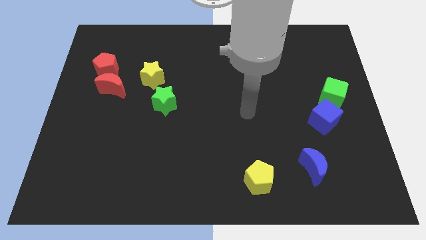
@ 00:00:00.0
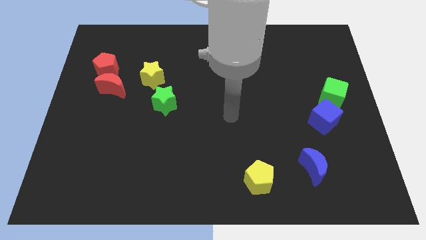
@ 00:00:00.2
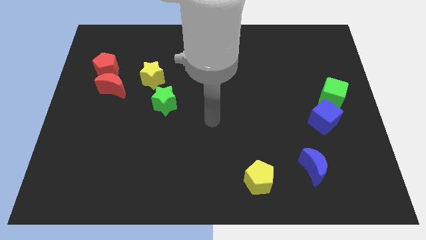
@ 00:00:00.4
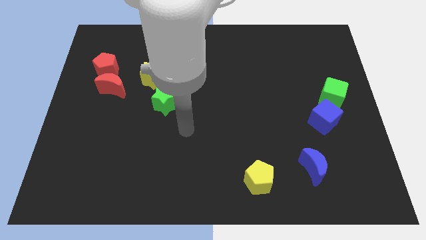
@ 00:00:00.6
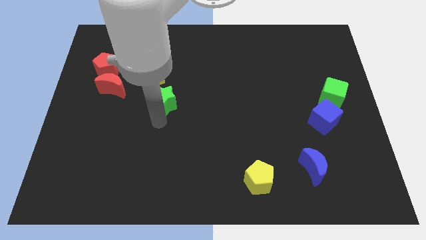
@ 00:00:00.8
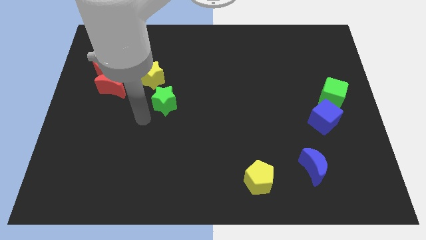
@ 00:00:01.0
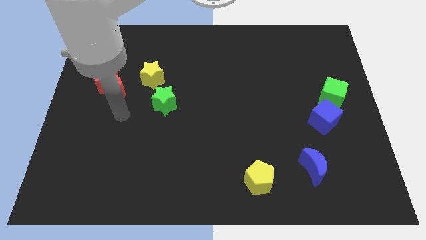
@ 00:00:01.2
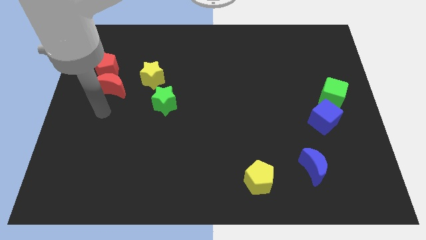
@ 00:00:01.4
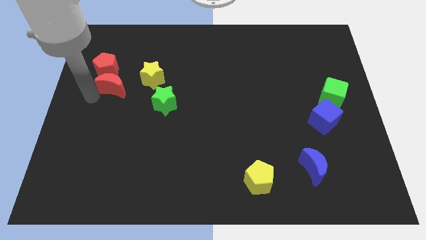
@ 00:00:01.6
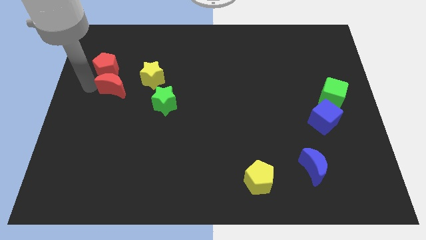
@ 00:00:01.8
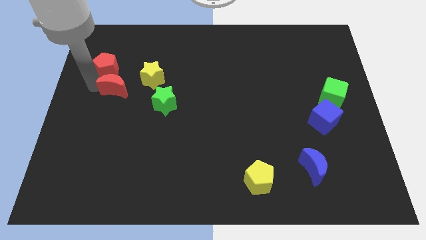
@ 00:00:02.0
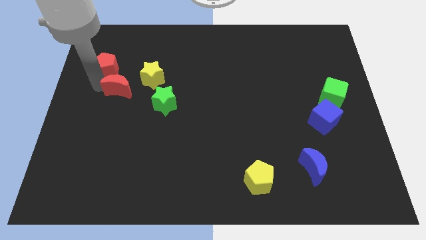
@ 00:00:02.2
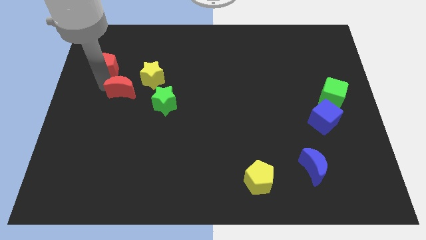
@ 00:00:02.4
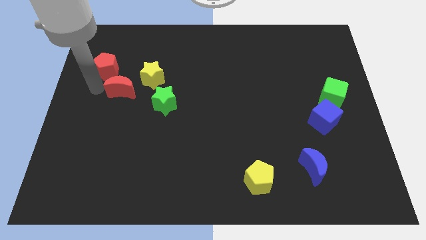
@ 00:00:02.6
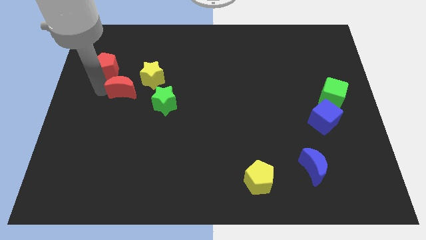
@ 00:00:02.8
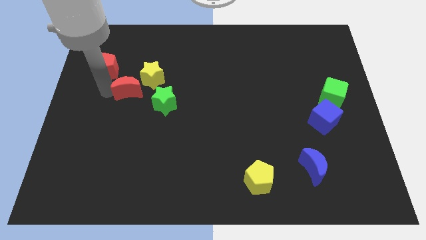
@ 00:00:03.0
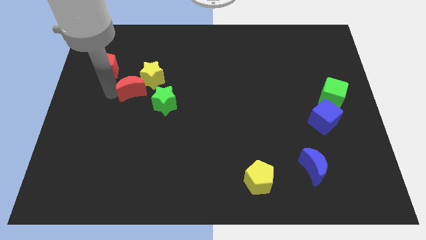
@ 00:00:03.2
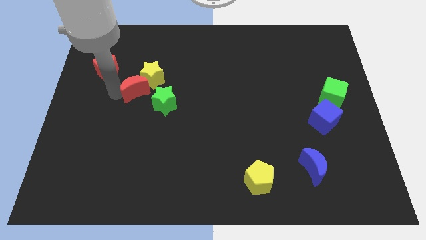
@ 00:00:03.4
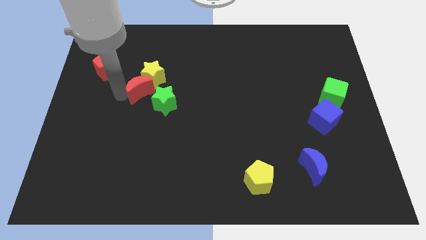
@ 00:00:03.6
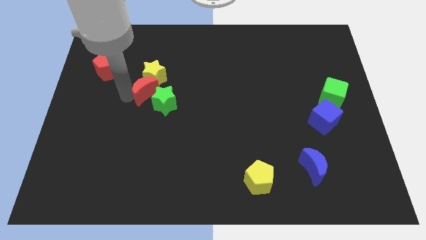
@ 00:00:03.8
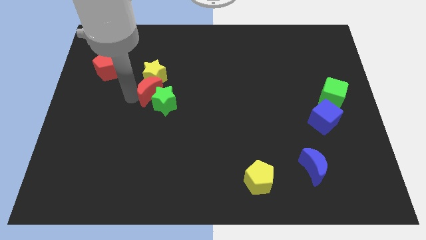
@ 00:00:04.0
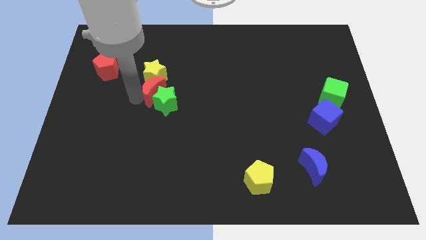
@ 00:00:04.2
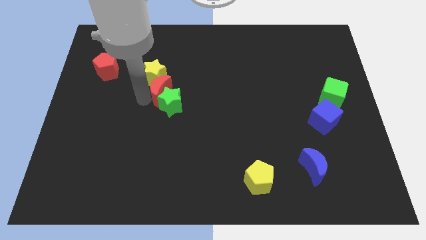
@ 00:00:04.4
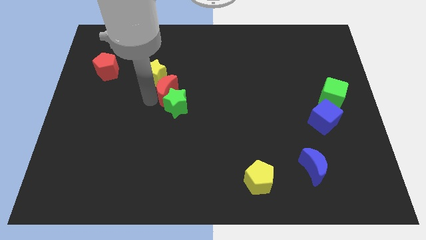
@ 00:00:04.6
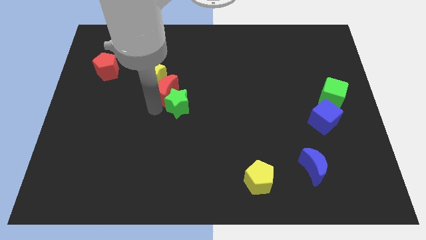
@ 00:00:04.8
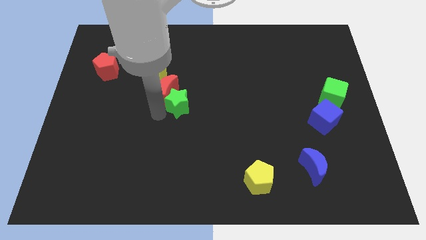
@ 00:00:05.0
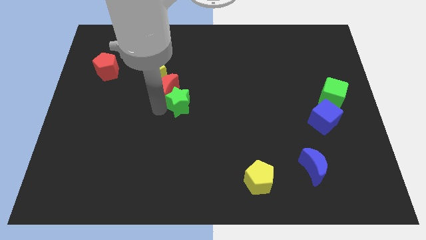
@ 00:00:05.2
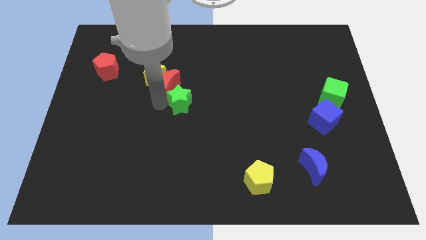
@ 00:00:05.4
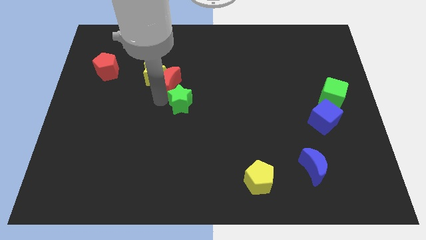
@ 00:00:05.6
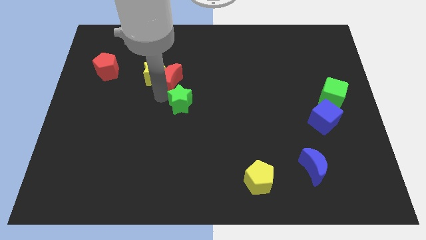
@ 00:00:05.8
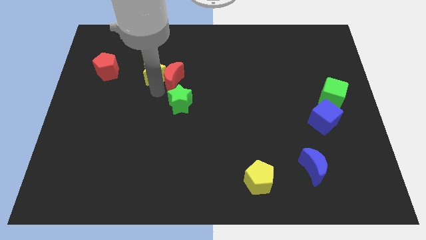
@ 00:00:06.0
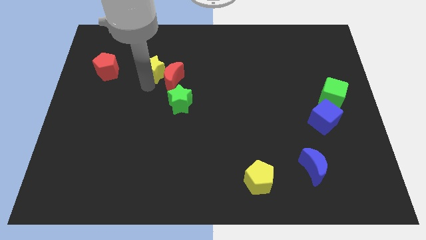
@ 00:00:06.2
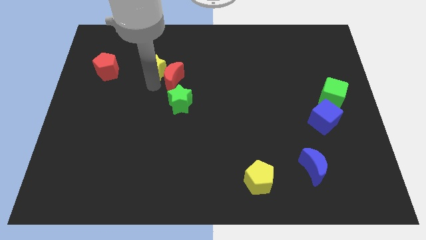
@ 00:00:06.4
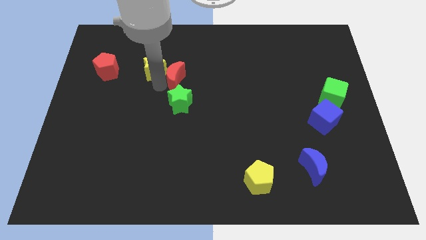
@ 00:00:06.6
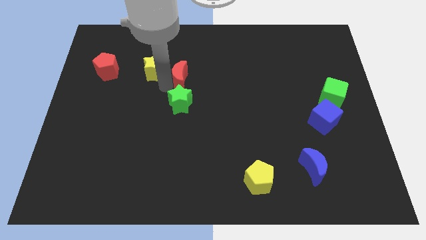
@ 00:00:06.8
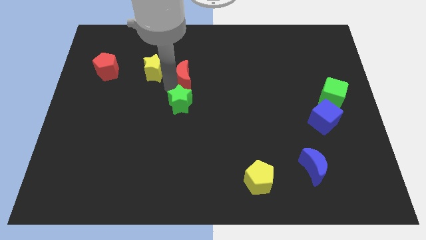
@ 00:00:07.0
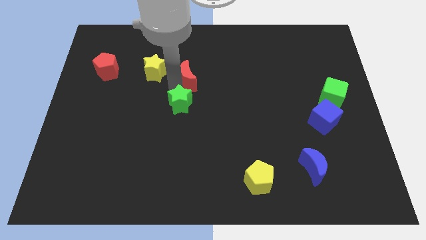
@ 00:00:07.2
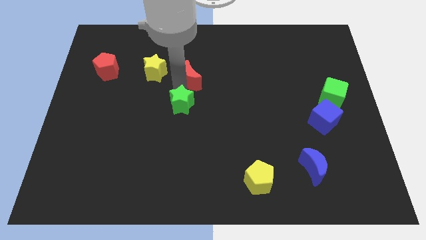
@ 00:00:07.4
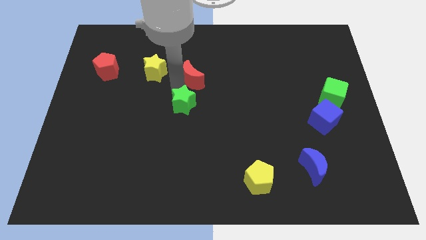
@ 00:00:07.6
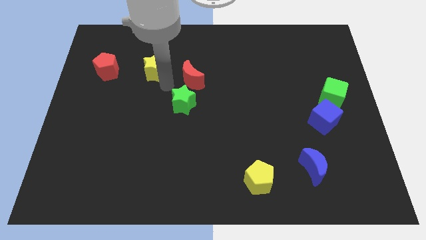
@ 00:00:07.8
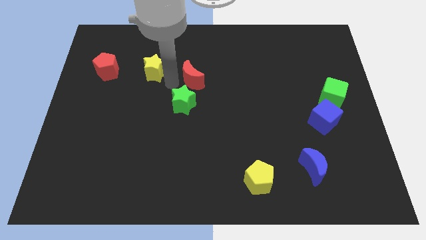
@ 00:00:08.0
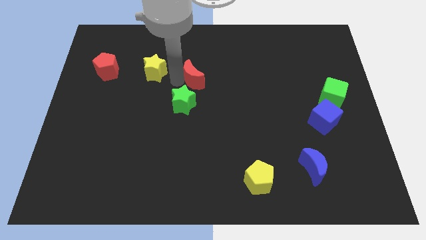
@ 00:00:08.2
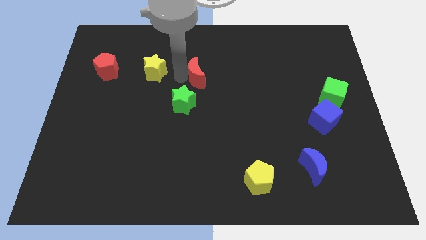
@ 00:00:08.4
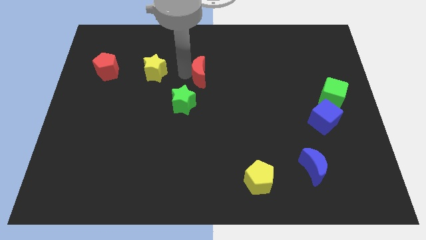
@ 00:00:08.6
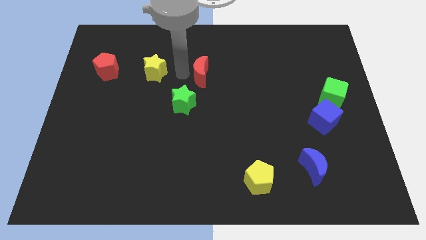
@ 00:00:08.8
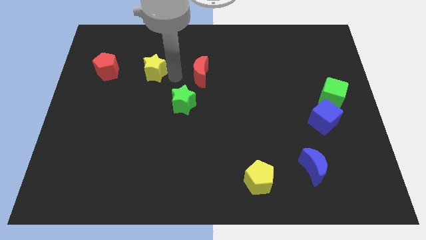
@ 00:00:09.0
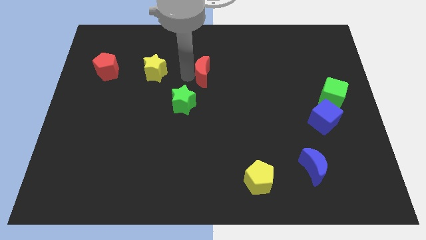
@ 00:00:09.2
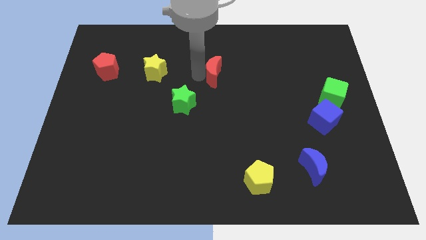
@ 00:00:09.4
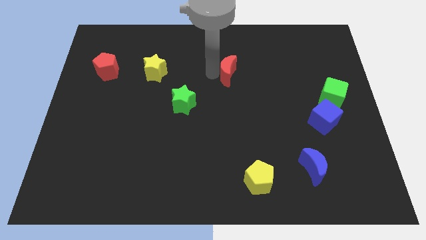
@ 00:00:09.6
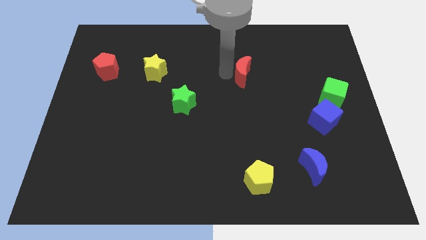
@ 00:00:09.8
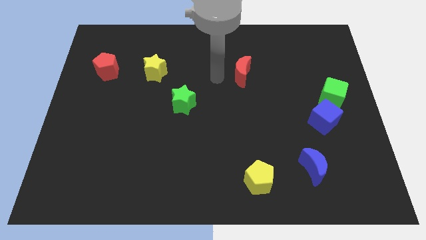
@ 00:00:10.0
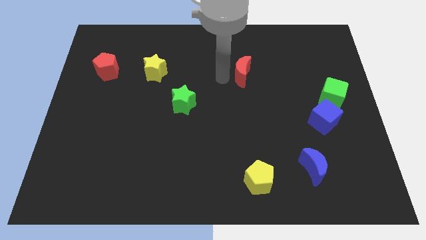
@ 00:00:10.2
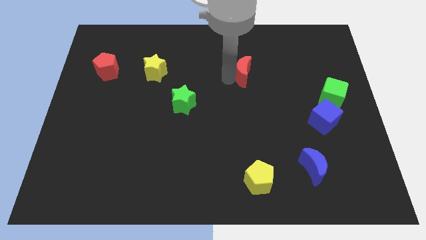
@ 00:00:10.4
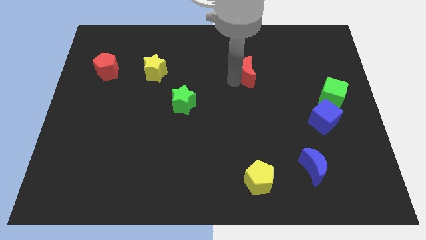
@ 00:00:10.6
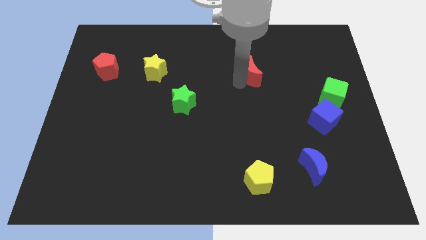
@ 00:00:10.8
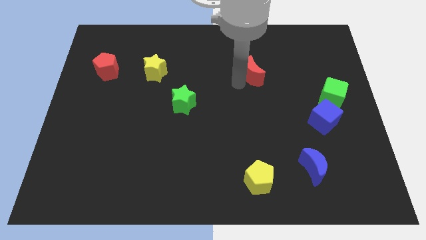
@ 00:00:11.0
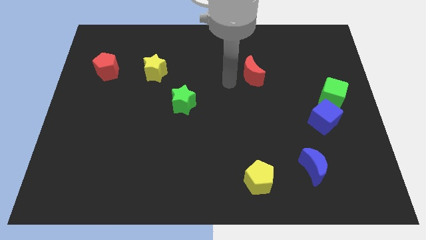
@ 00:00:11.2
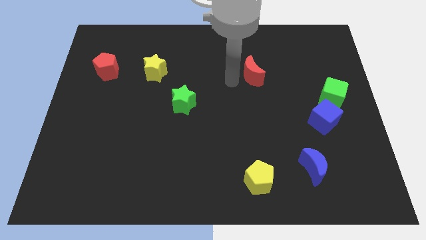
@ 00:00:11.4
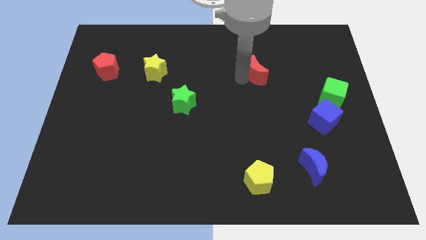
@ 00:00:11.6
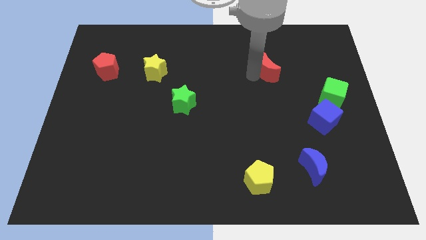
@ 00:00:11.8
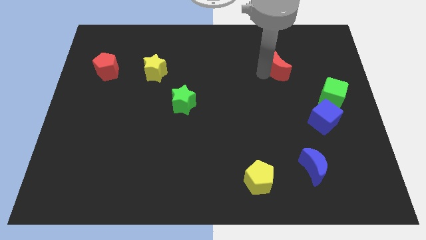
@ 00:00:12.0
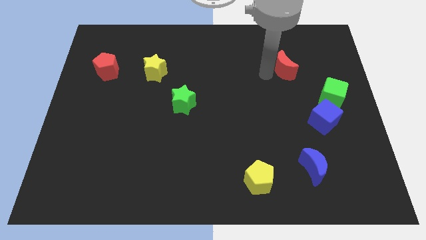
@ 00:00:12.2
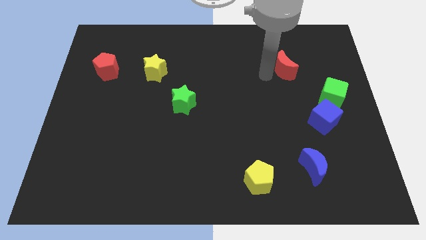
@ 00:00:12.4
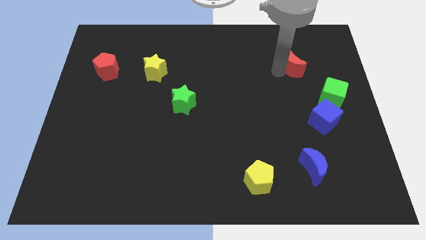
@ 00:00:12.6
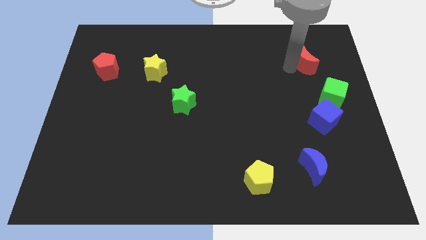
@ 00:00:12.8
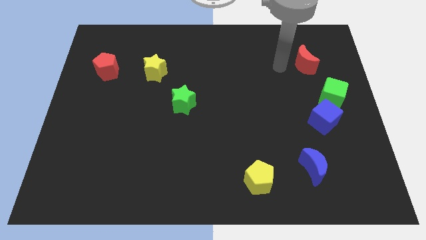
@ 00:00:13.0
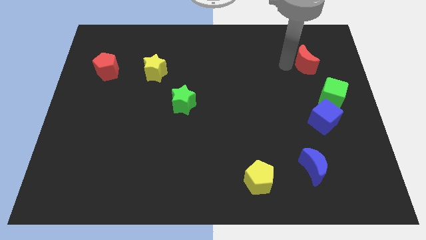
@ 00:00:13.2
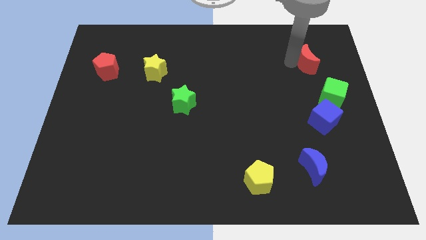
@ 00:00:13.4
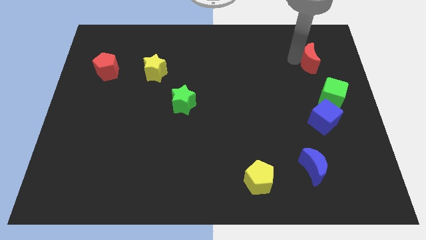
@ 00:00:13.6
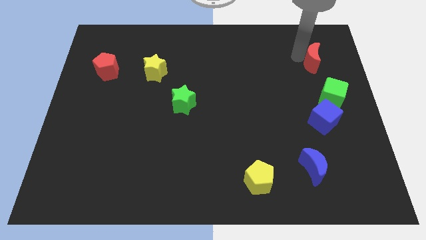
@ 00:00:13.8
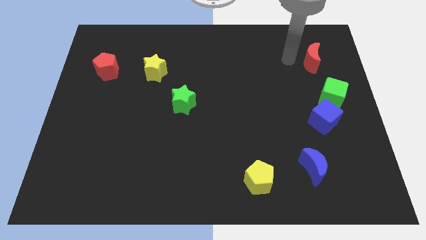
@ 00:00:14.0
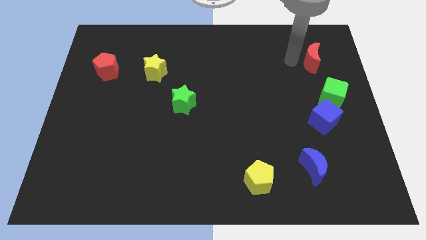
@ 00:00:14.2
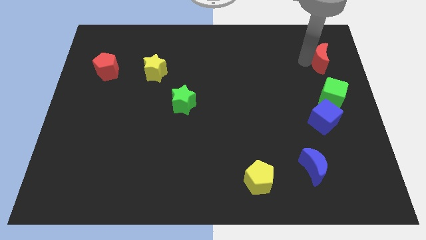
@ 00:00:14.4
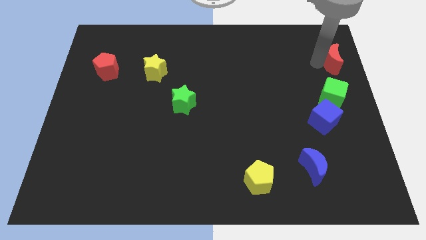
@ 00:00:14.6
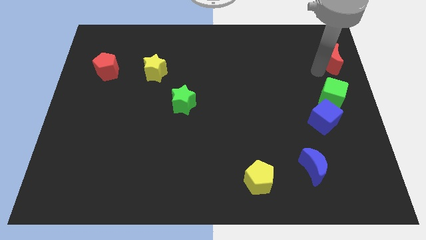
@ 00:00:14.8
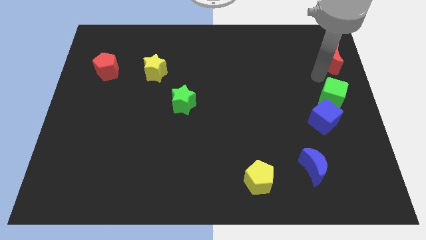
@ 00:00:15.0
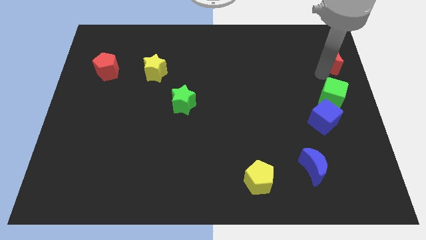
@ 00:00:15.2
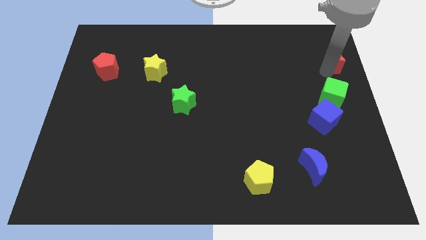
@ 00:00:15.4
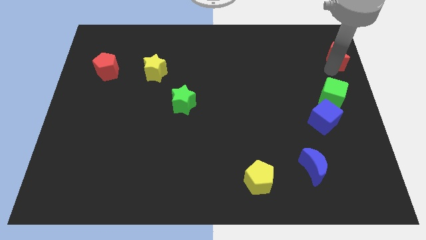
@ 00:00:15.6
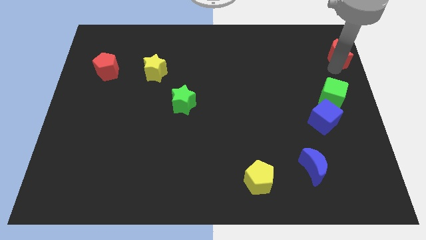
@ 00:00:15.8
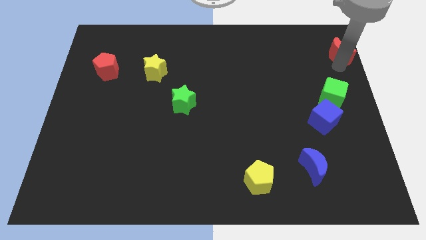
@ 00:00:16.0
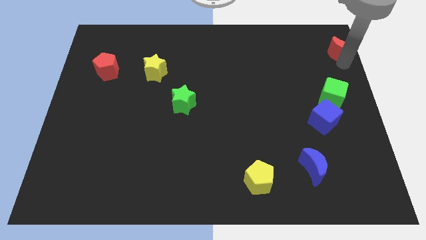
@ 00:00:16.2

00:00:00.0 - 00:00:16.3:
move the red moon to the top right of the board
